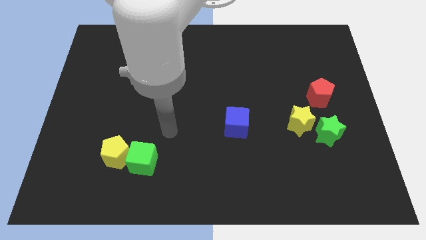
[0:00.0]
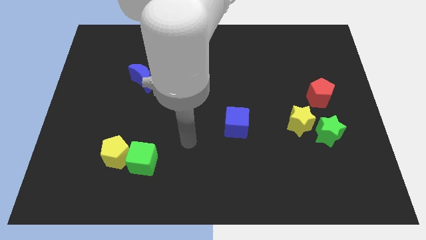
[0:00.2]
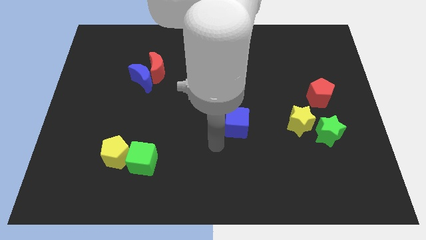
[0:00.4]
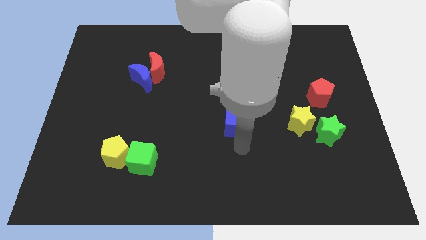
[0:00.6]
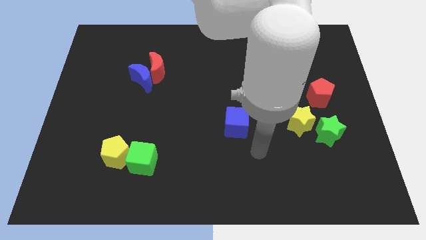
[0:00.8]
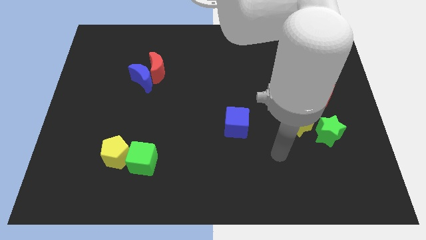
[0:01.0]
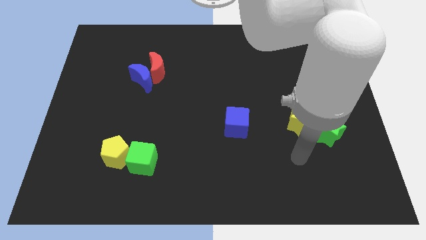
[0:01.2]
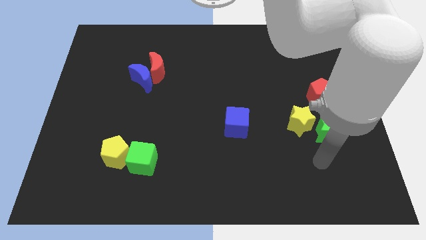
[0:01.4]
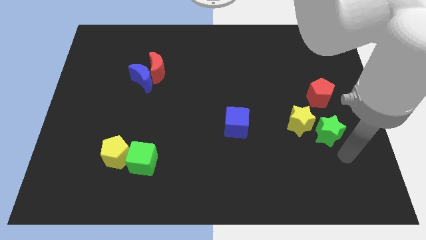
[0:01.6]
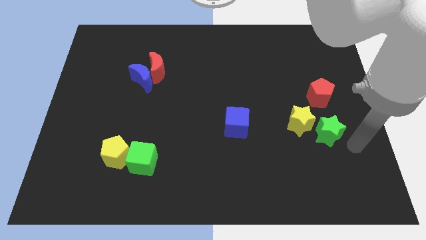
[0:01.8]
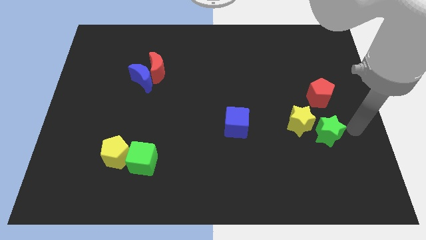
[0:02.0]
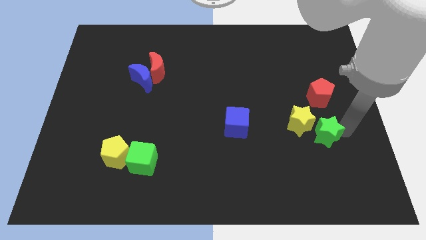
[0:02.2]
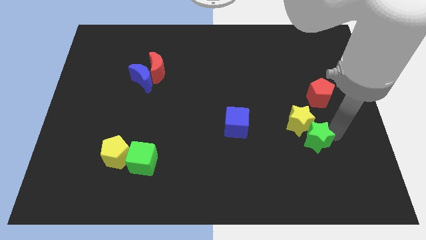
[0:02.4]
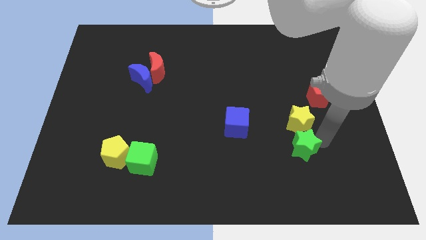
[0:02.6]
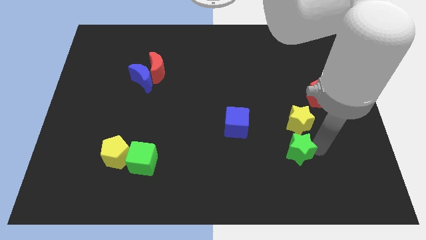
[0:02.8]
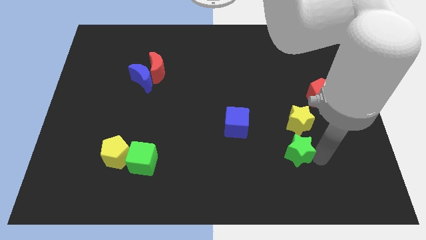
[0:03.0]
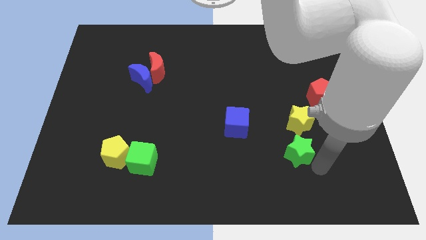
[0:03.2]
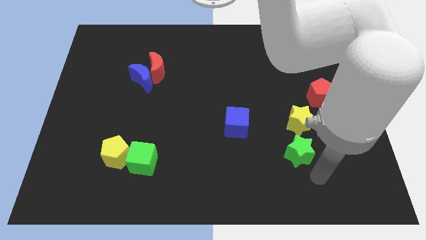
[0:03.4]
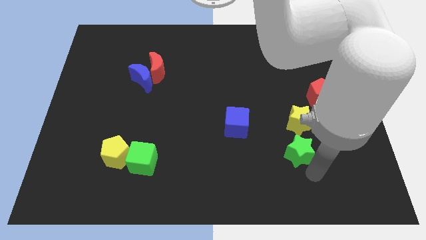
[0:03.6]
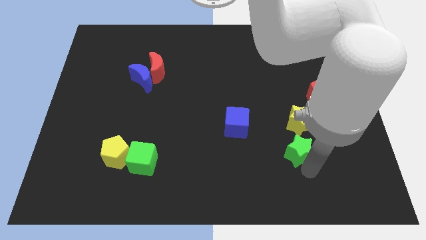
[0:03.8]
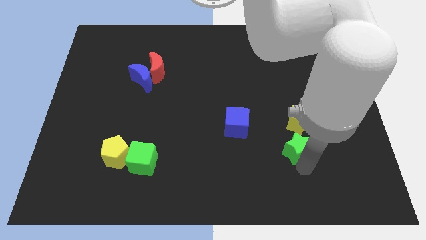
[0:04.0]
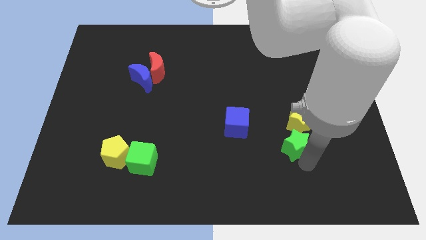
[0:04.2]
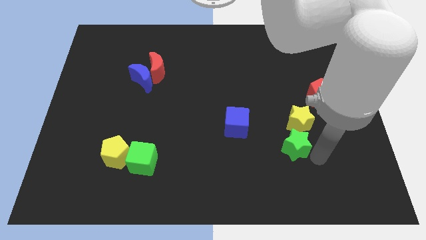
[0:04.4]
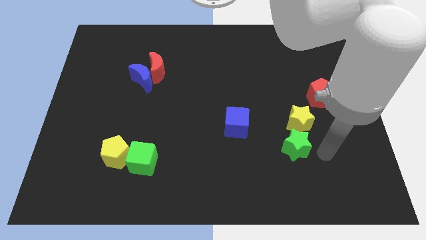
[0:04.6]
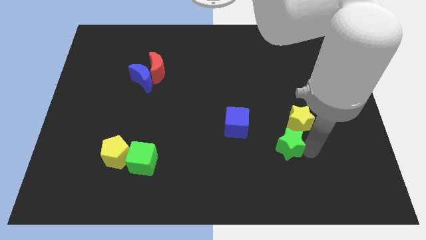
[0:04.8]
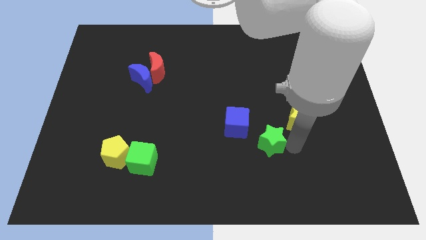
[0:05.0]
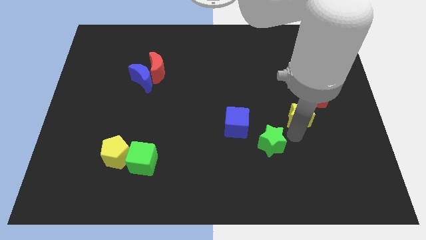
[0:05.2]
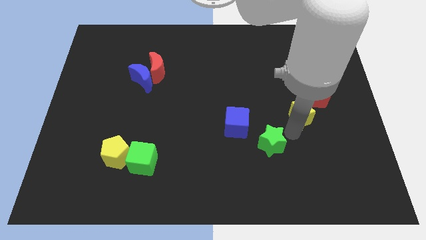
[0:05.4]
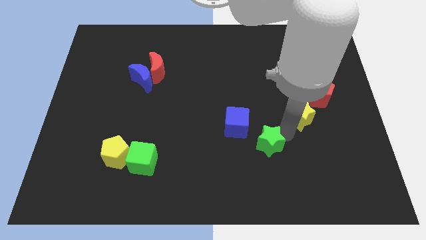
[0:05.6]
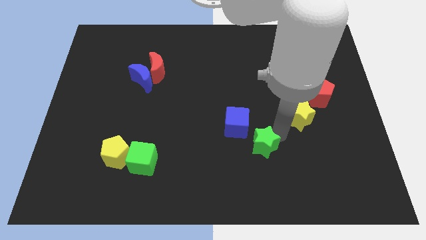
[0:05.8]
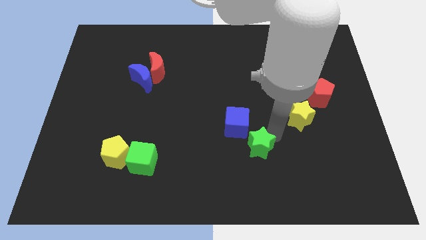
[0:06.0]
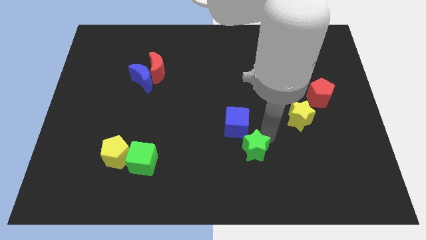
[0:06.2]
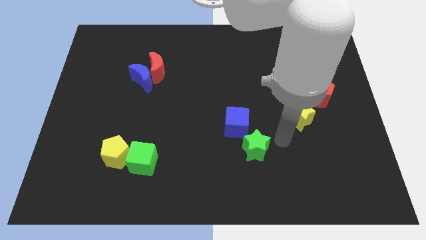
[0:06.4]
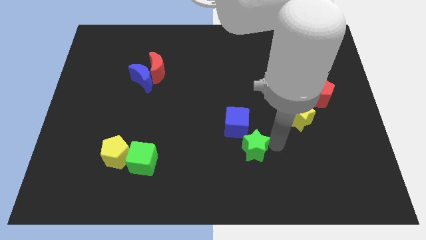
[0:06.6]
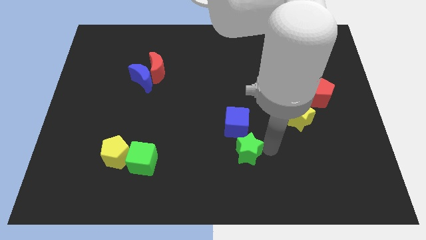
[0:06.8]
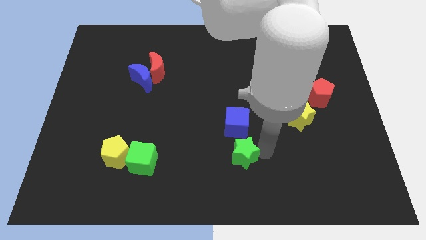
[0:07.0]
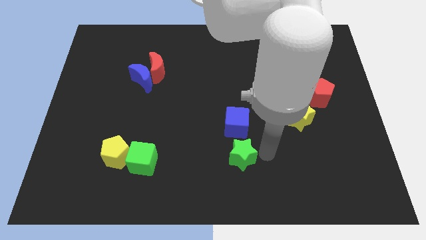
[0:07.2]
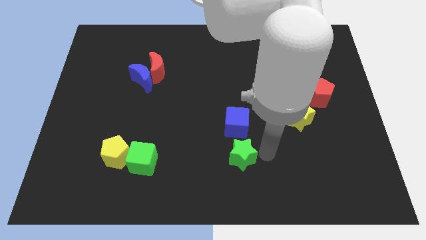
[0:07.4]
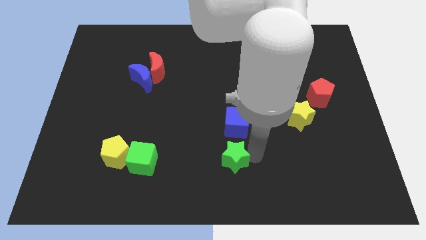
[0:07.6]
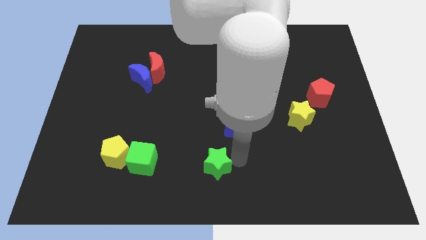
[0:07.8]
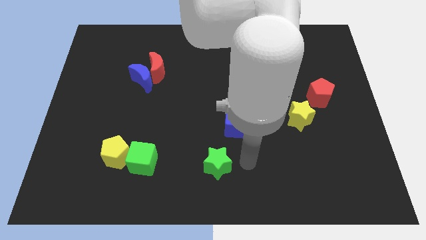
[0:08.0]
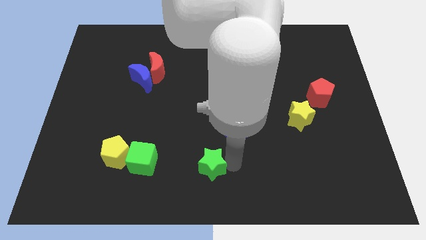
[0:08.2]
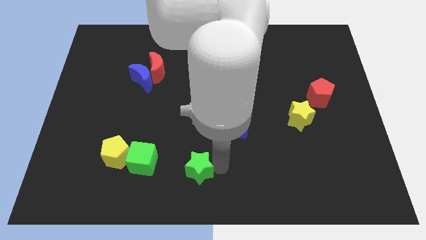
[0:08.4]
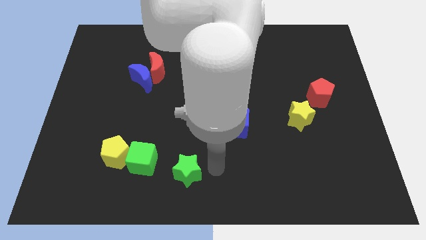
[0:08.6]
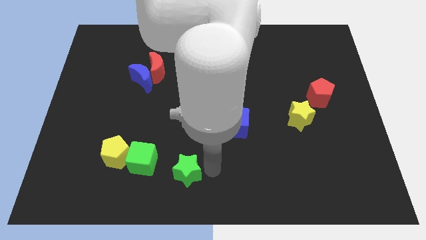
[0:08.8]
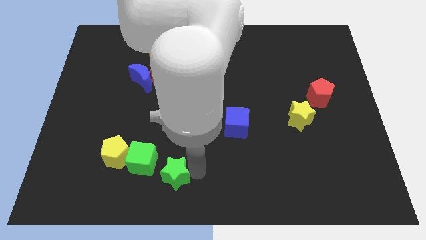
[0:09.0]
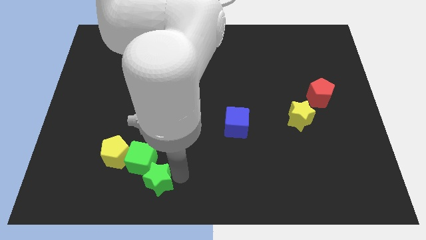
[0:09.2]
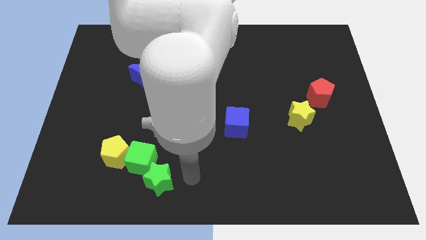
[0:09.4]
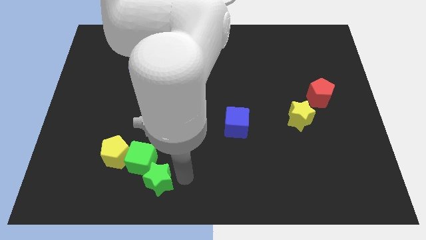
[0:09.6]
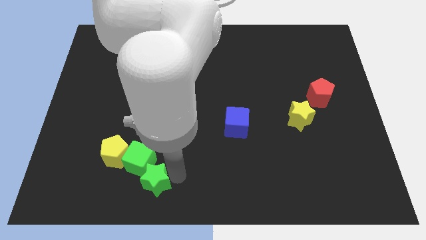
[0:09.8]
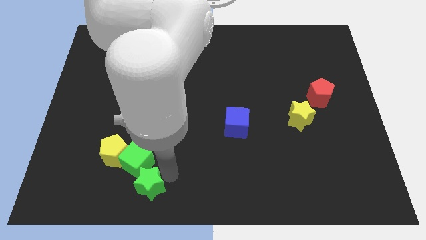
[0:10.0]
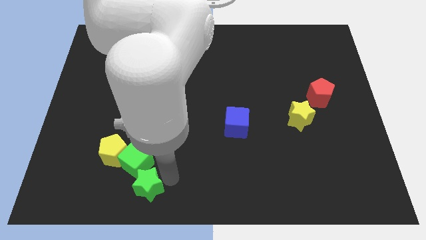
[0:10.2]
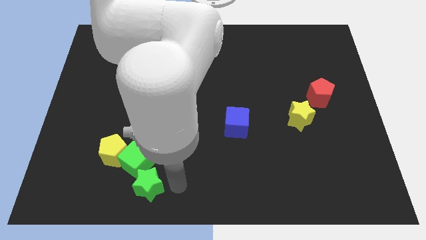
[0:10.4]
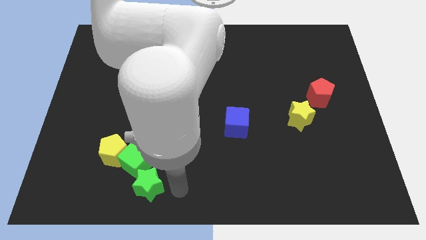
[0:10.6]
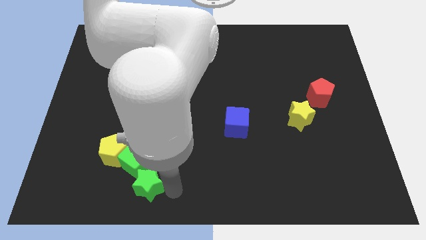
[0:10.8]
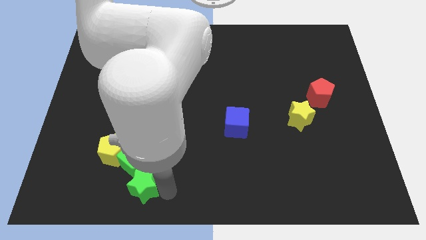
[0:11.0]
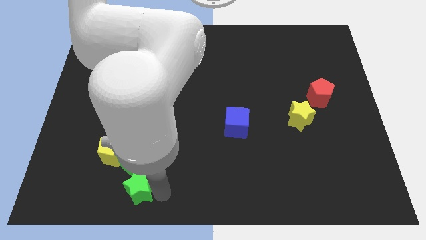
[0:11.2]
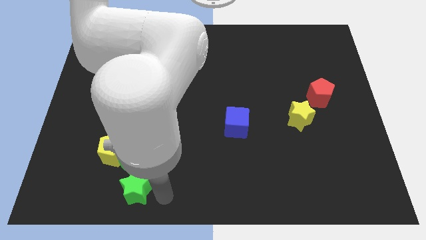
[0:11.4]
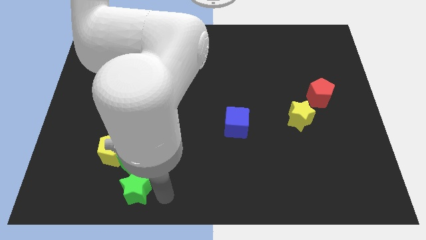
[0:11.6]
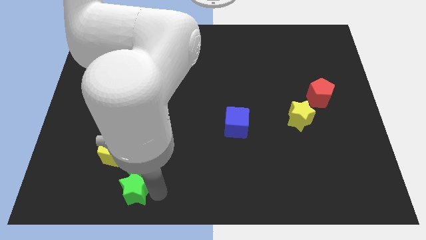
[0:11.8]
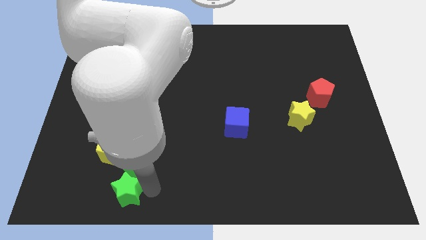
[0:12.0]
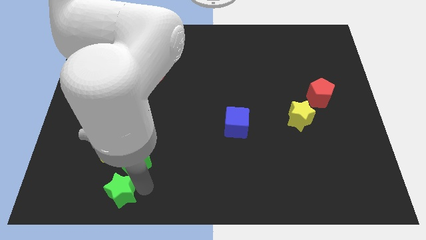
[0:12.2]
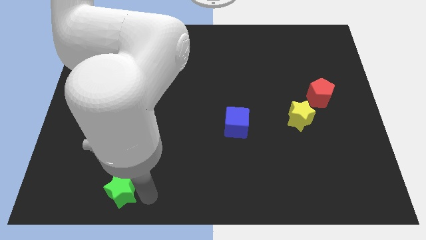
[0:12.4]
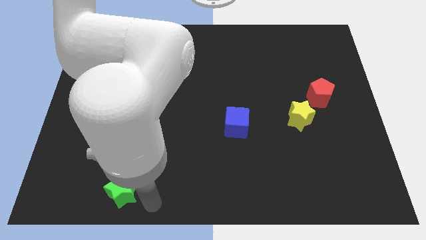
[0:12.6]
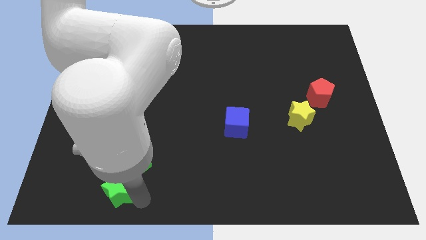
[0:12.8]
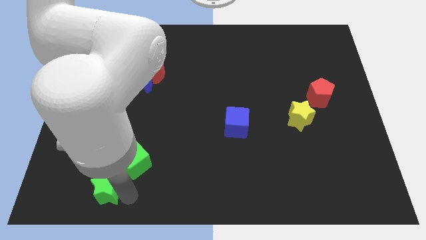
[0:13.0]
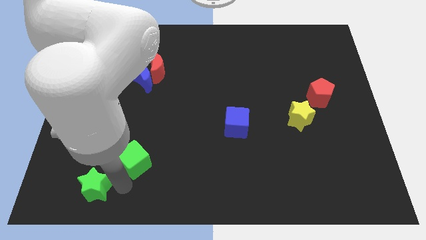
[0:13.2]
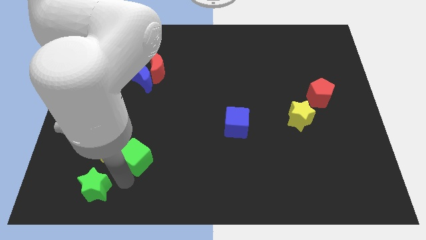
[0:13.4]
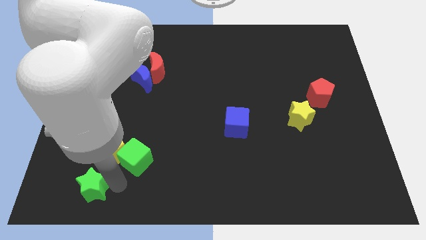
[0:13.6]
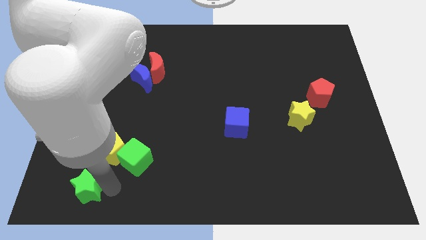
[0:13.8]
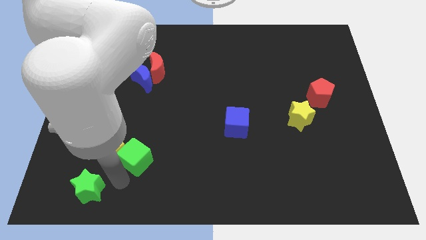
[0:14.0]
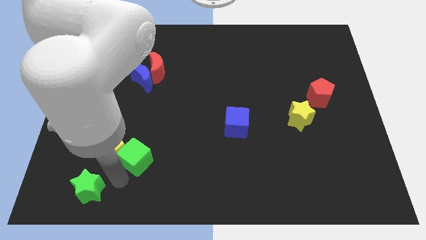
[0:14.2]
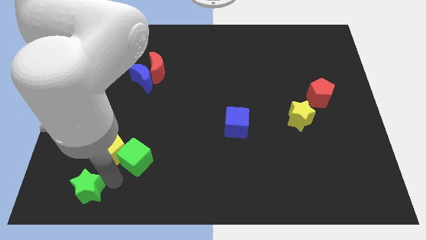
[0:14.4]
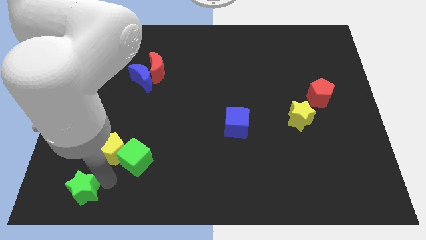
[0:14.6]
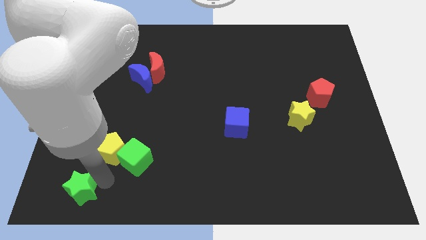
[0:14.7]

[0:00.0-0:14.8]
slide the green star to the bottom left of the board
